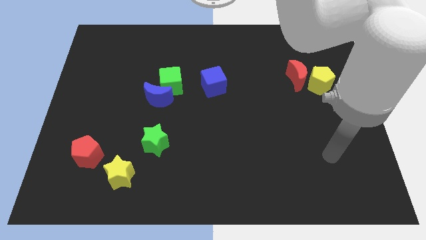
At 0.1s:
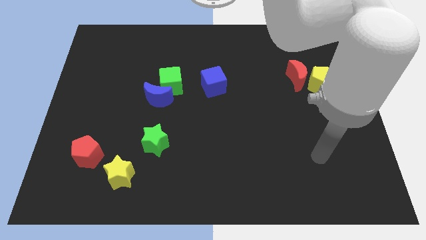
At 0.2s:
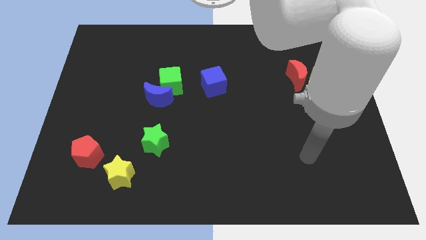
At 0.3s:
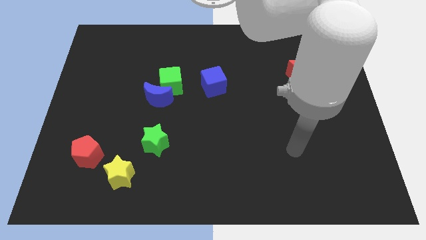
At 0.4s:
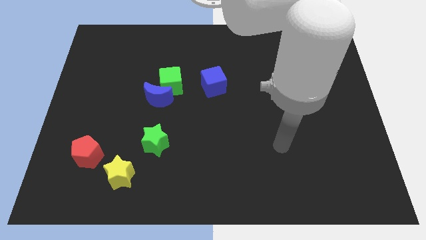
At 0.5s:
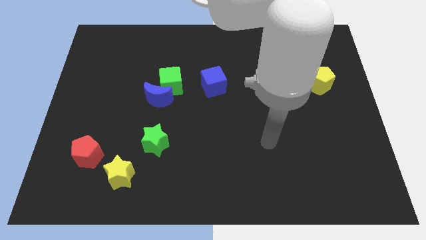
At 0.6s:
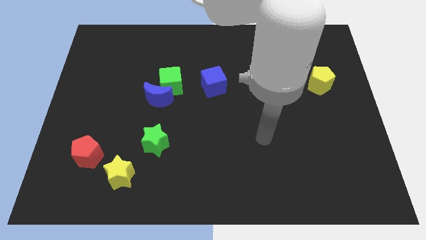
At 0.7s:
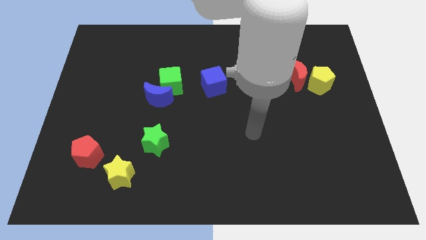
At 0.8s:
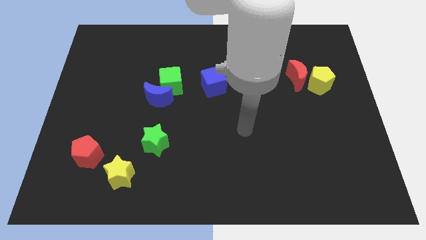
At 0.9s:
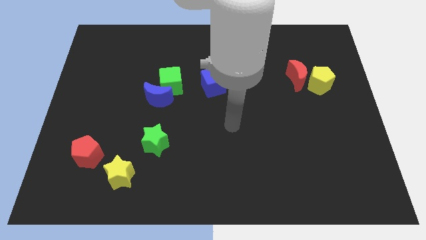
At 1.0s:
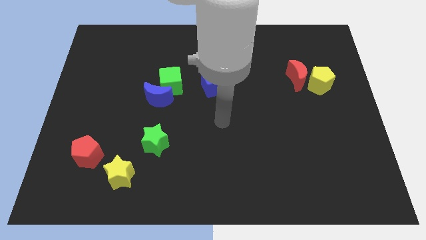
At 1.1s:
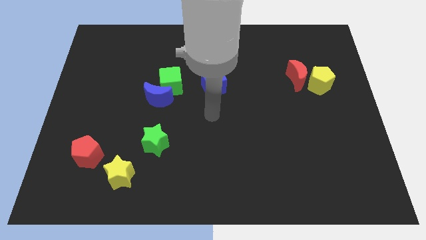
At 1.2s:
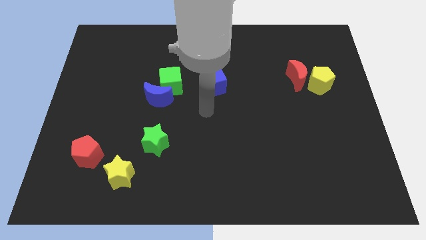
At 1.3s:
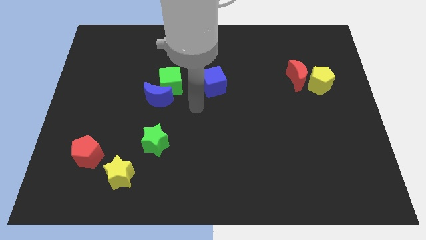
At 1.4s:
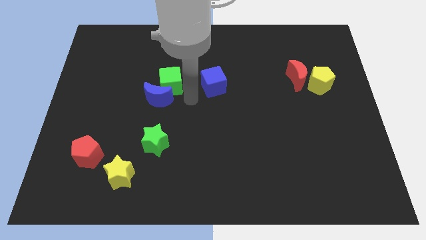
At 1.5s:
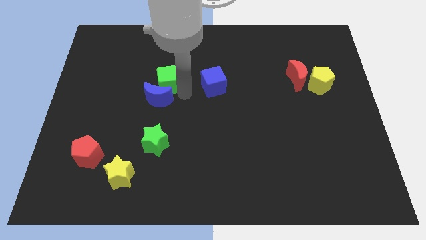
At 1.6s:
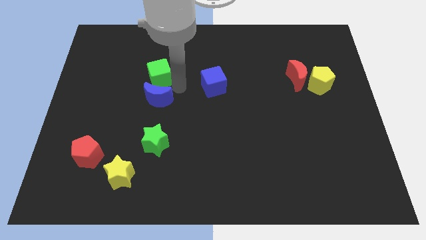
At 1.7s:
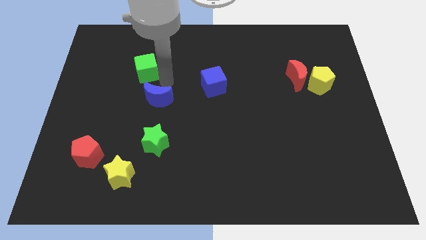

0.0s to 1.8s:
move the blue moon away from the green cube

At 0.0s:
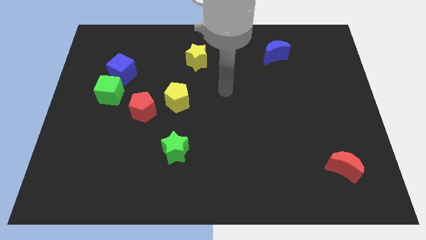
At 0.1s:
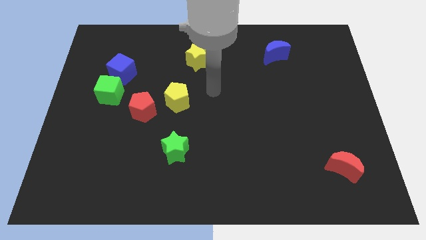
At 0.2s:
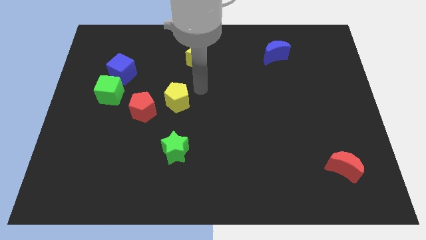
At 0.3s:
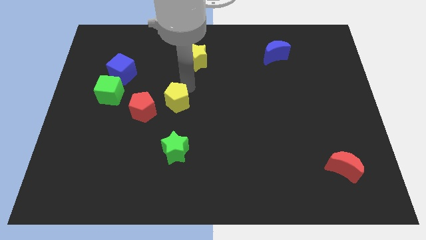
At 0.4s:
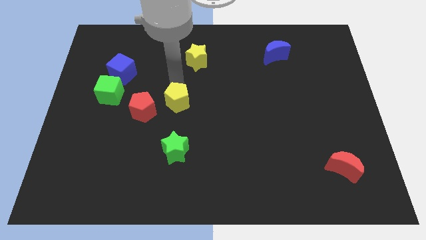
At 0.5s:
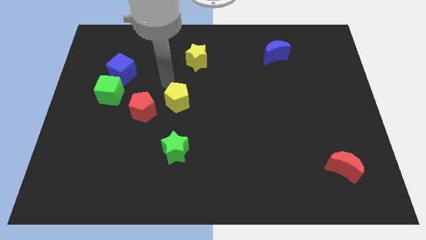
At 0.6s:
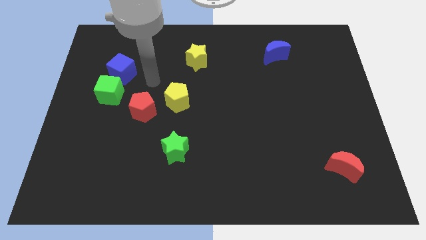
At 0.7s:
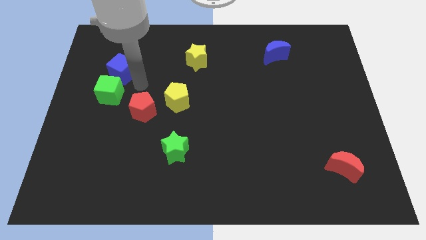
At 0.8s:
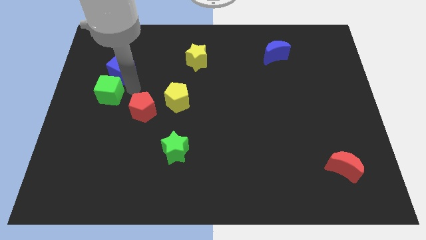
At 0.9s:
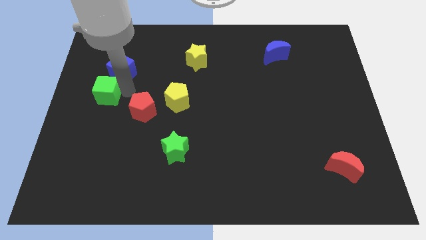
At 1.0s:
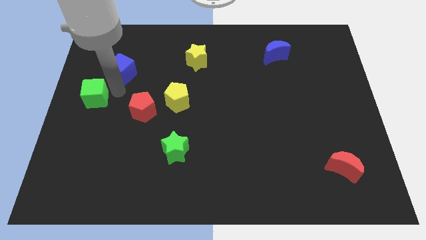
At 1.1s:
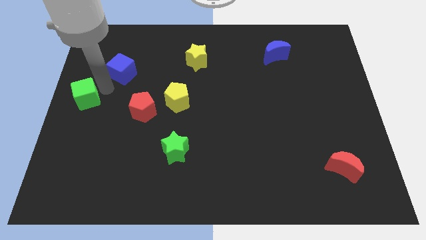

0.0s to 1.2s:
separate the blue cube from the green cube

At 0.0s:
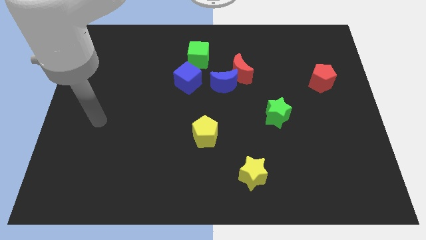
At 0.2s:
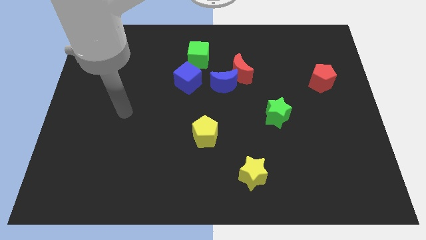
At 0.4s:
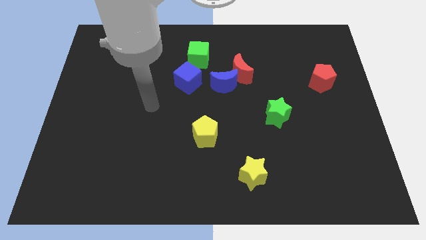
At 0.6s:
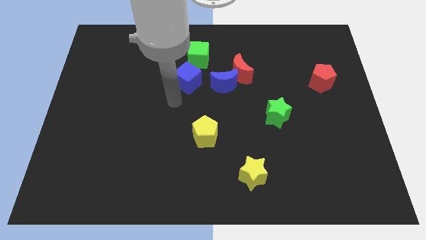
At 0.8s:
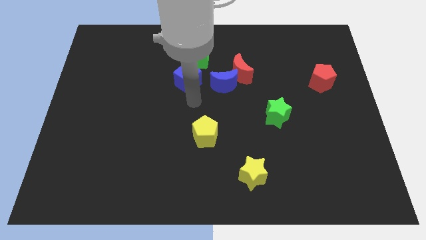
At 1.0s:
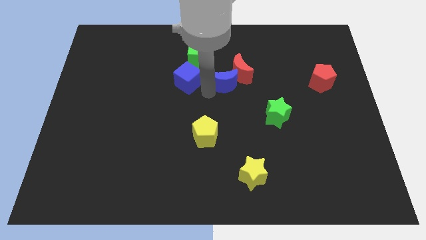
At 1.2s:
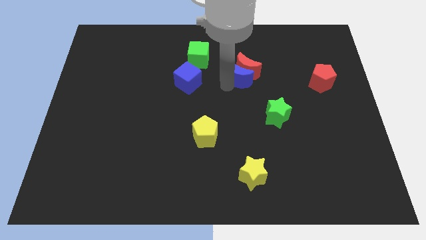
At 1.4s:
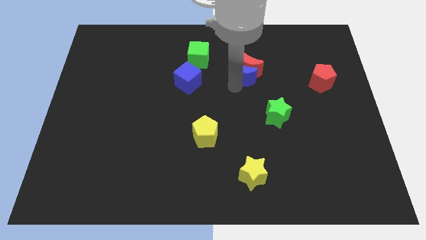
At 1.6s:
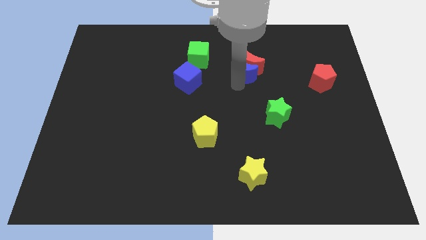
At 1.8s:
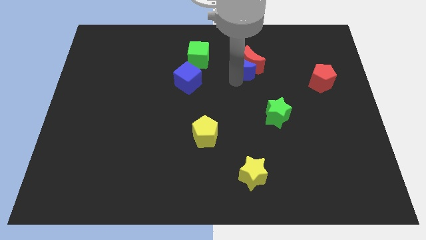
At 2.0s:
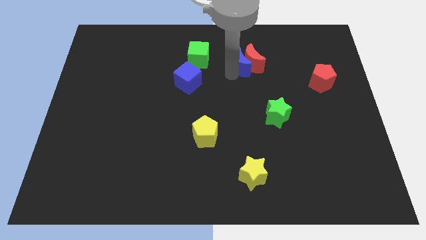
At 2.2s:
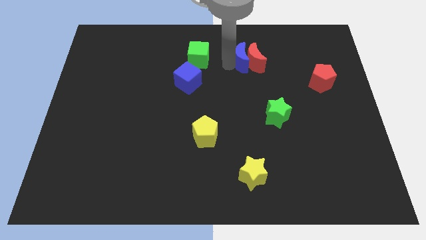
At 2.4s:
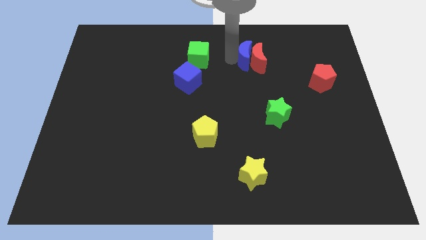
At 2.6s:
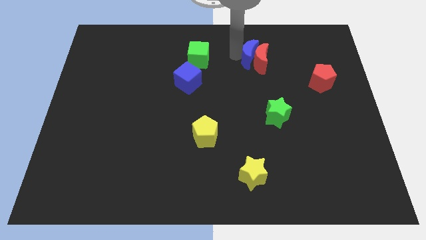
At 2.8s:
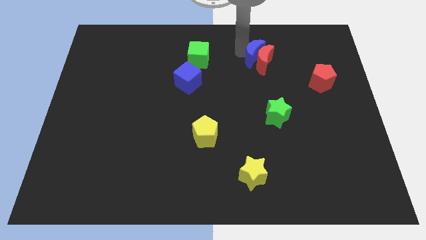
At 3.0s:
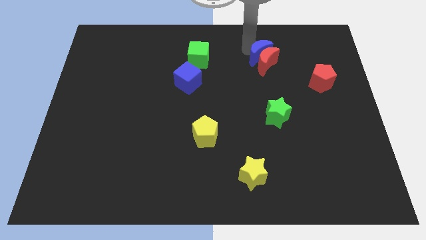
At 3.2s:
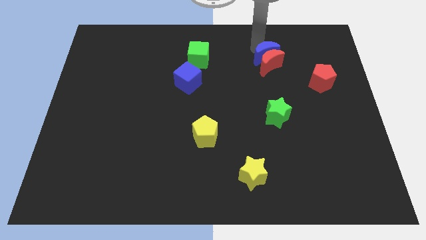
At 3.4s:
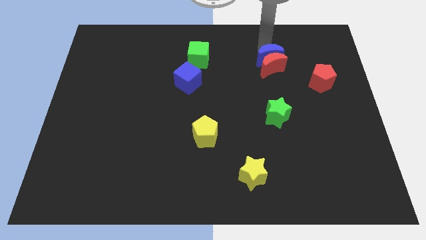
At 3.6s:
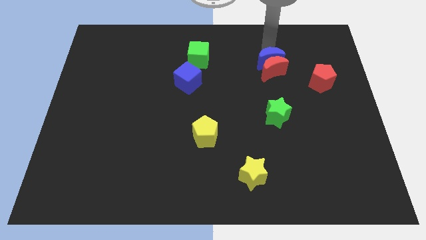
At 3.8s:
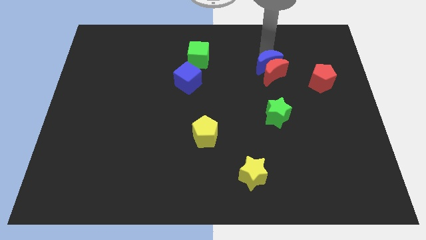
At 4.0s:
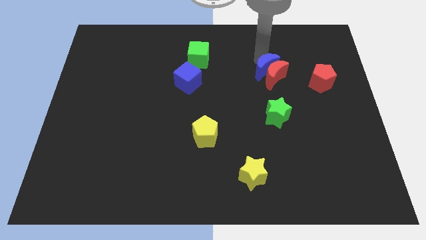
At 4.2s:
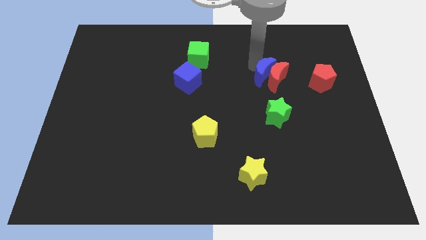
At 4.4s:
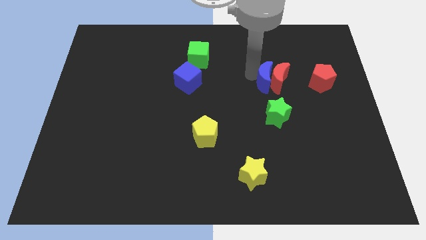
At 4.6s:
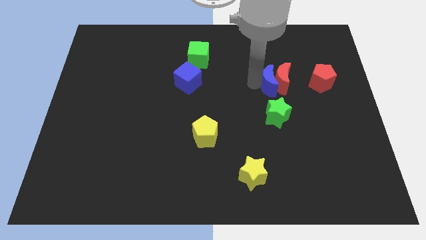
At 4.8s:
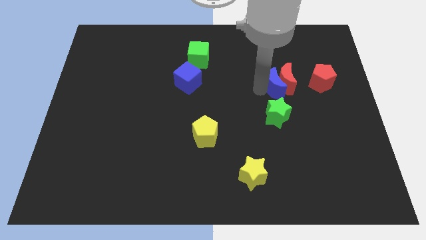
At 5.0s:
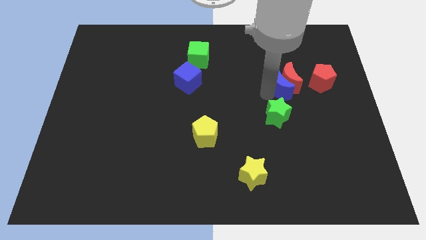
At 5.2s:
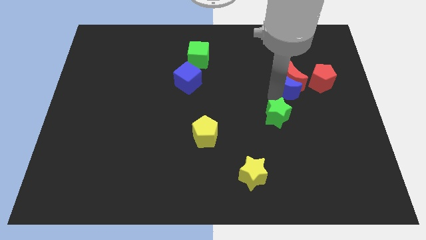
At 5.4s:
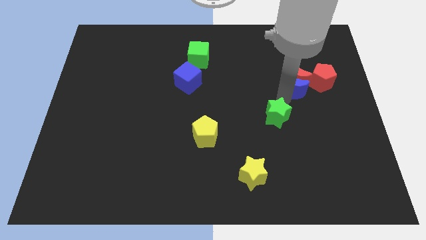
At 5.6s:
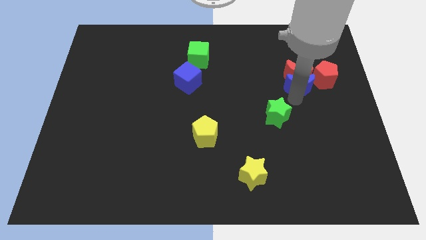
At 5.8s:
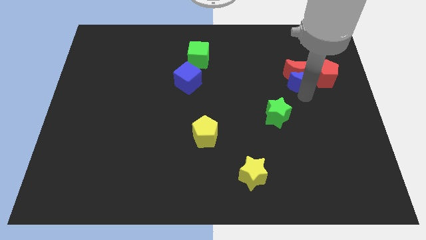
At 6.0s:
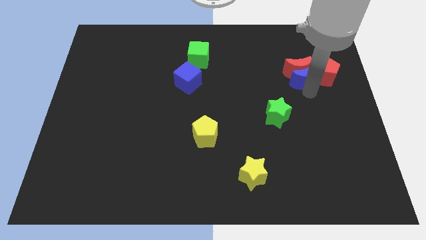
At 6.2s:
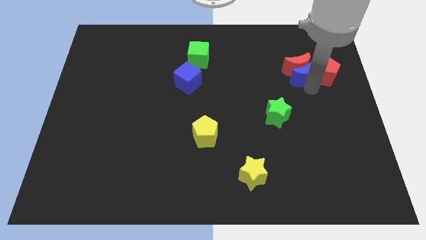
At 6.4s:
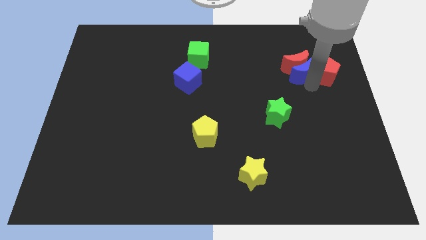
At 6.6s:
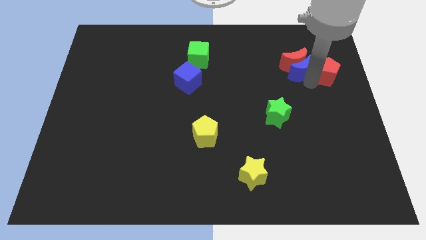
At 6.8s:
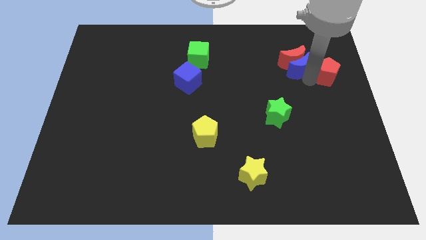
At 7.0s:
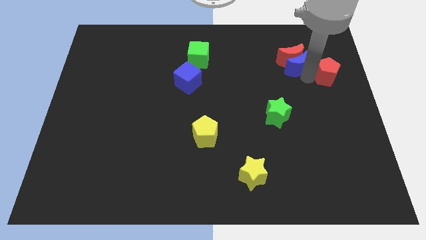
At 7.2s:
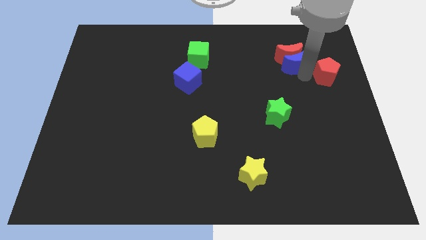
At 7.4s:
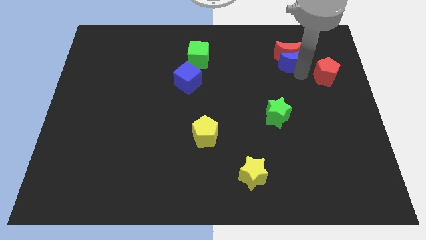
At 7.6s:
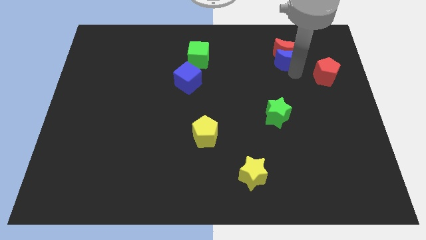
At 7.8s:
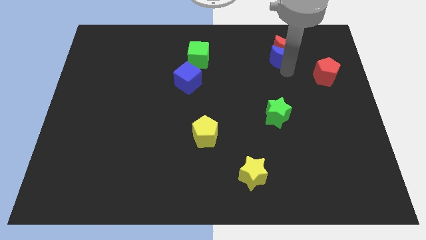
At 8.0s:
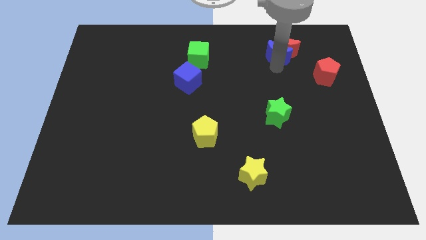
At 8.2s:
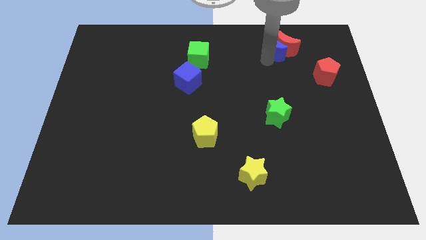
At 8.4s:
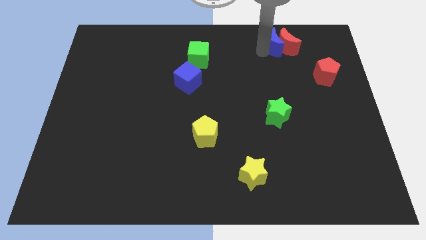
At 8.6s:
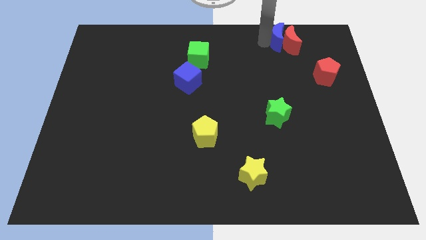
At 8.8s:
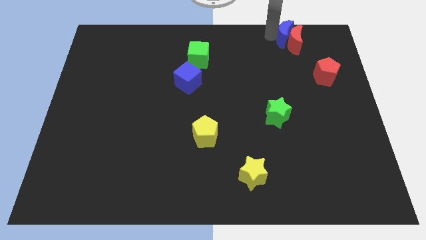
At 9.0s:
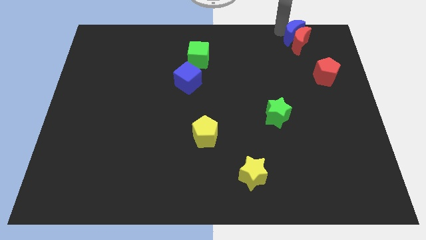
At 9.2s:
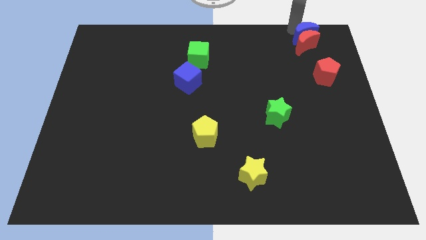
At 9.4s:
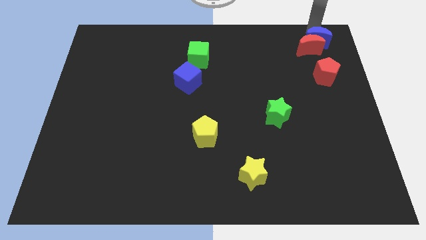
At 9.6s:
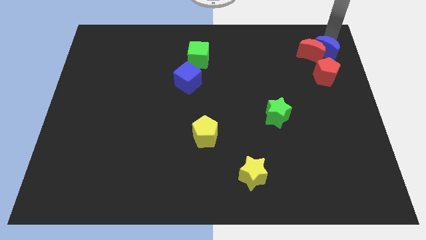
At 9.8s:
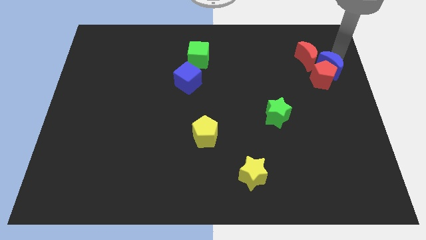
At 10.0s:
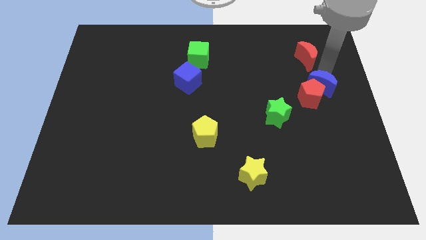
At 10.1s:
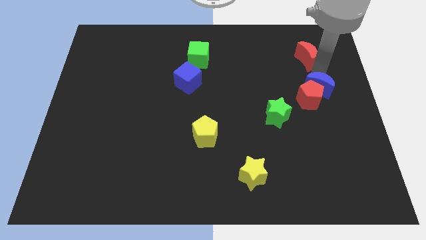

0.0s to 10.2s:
separate the red moon from the blue moon

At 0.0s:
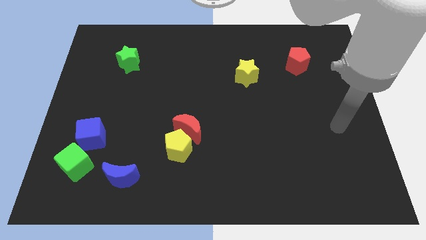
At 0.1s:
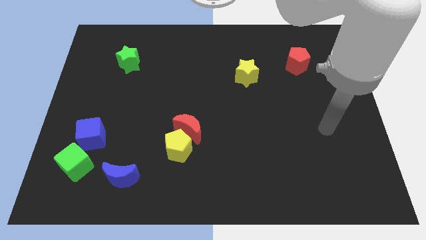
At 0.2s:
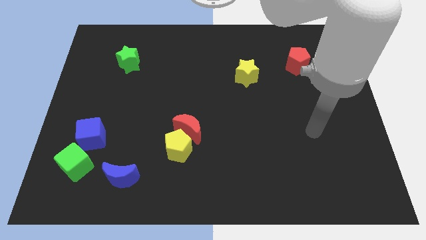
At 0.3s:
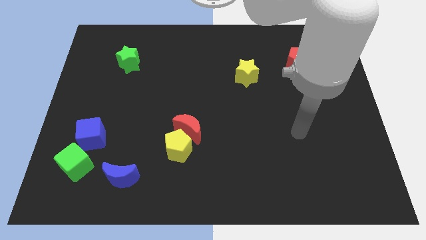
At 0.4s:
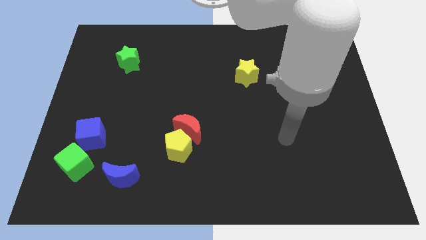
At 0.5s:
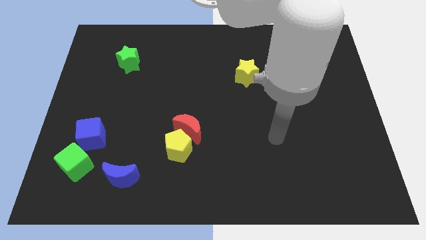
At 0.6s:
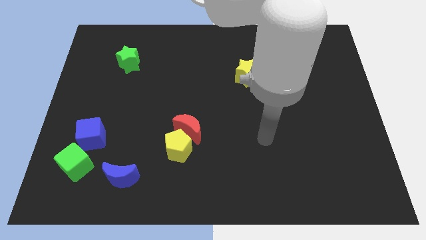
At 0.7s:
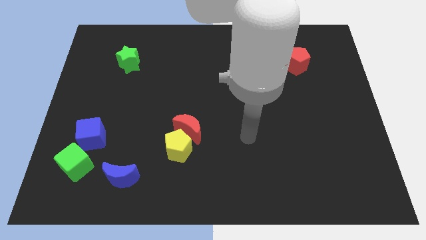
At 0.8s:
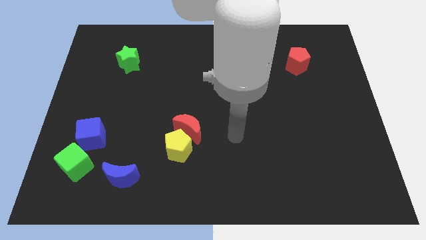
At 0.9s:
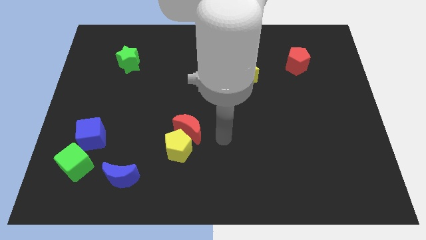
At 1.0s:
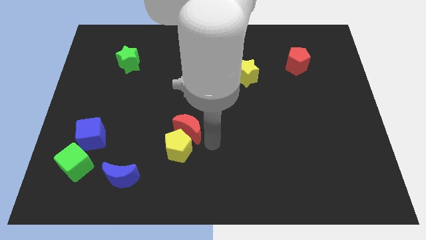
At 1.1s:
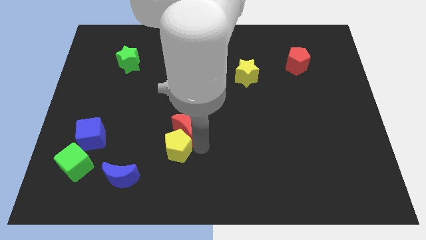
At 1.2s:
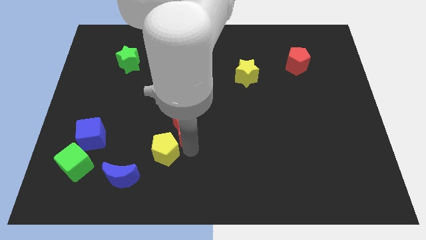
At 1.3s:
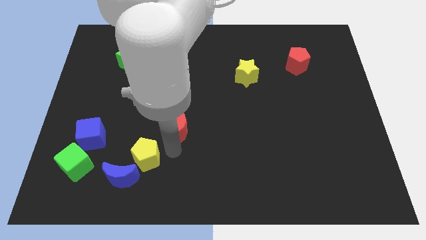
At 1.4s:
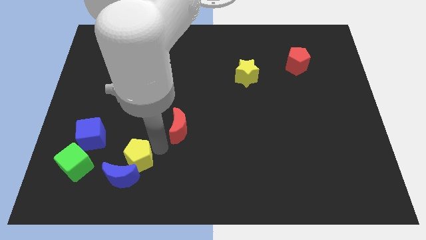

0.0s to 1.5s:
pull the red moon apart from the yellow pentagon
